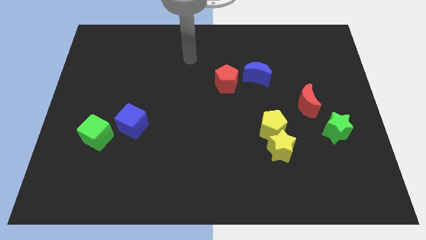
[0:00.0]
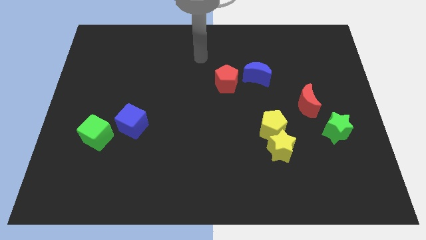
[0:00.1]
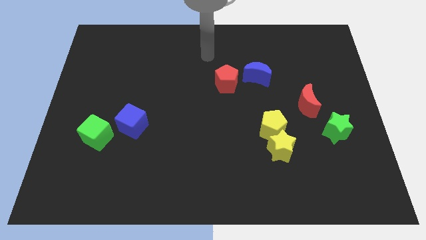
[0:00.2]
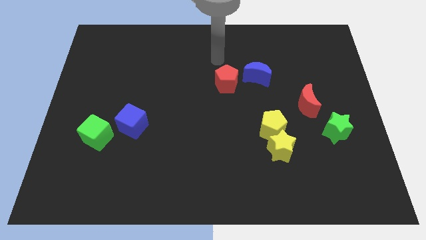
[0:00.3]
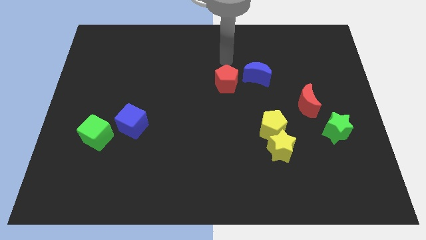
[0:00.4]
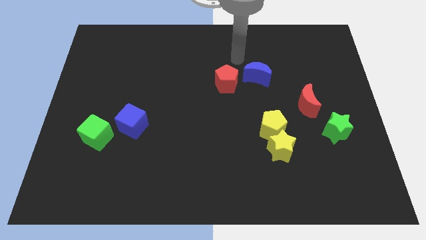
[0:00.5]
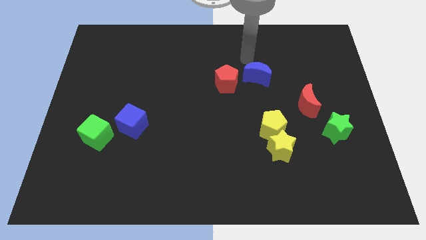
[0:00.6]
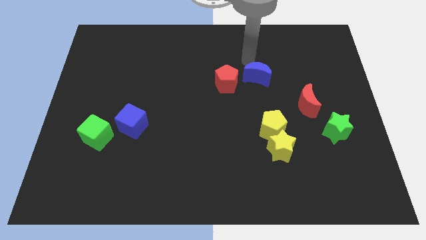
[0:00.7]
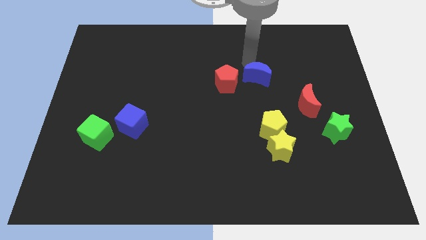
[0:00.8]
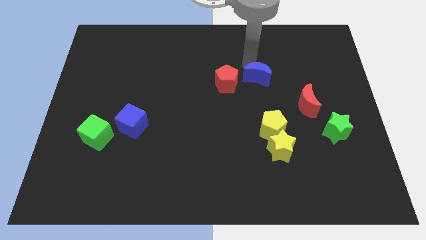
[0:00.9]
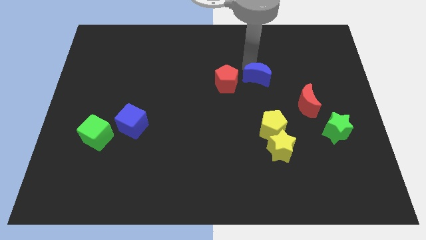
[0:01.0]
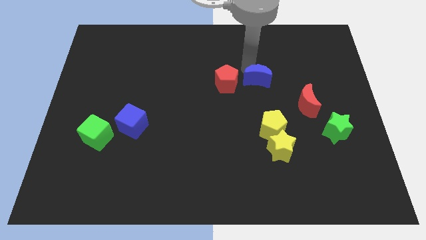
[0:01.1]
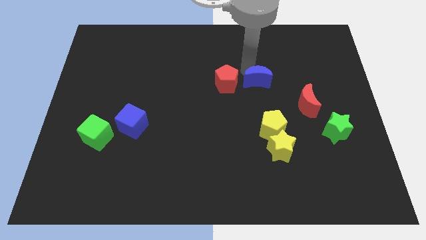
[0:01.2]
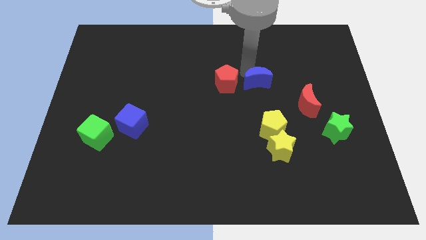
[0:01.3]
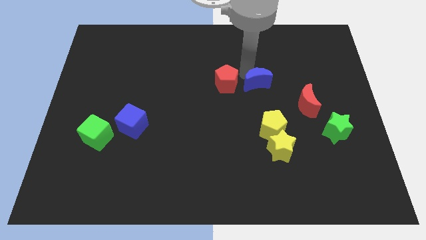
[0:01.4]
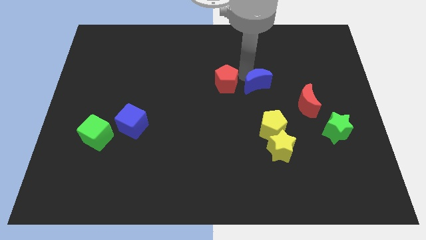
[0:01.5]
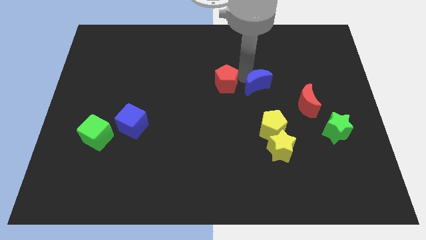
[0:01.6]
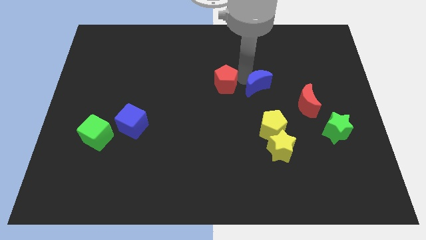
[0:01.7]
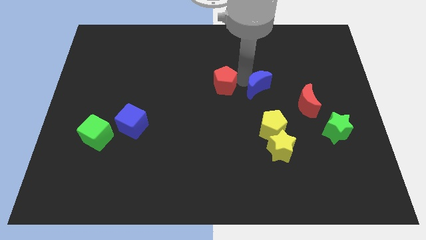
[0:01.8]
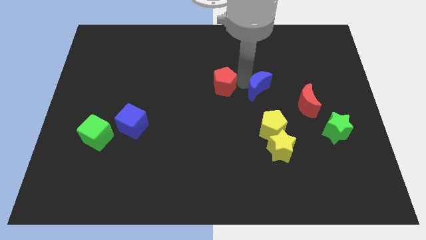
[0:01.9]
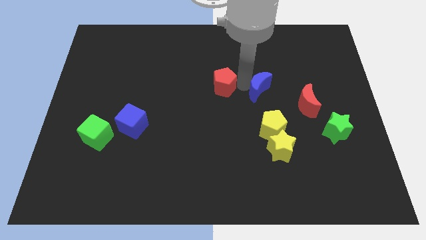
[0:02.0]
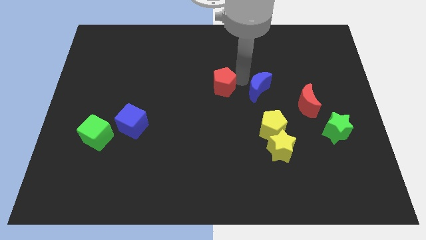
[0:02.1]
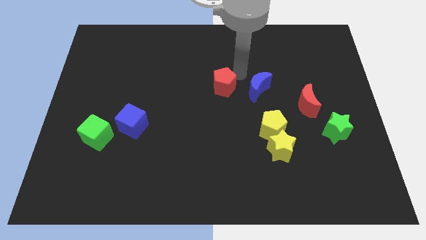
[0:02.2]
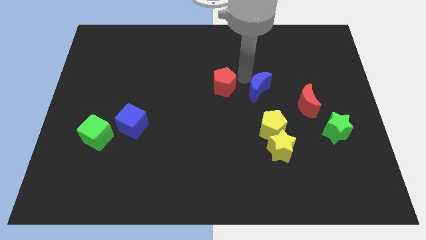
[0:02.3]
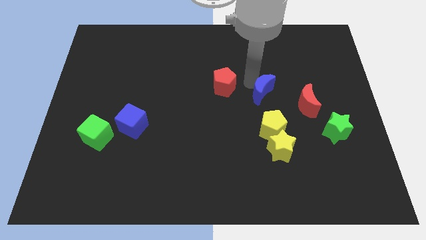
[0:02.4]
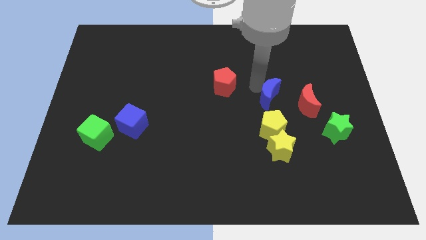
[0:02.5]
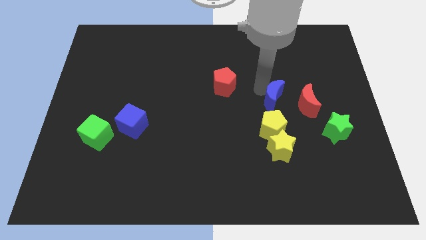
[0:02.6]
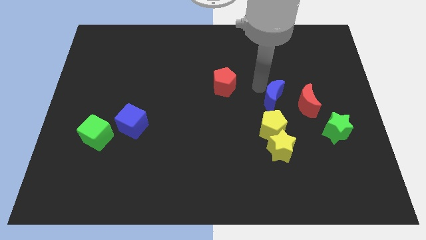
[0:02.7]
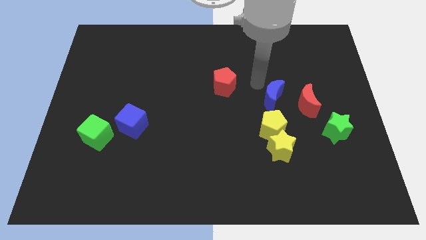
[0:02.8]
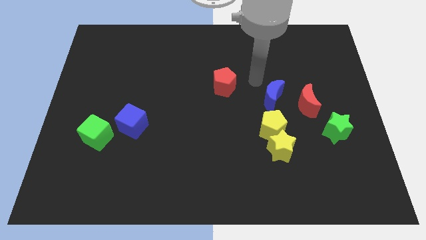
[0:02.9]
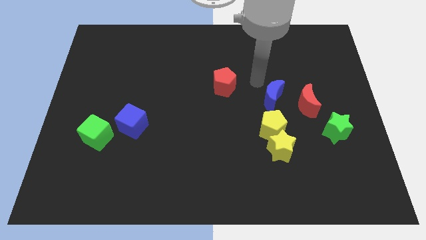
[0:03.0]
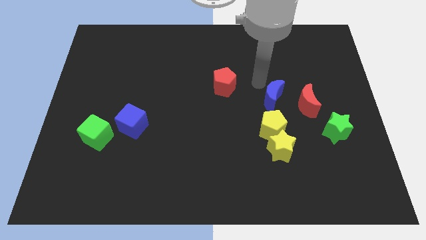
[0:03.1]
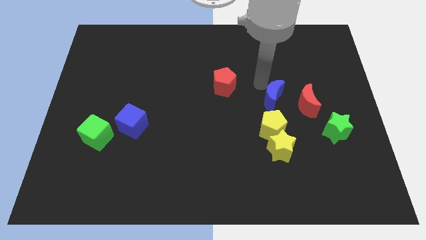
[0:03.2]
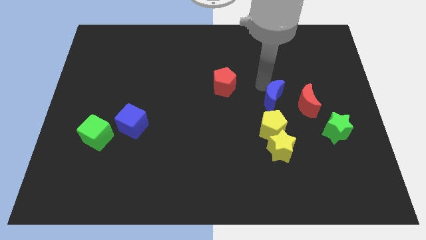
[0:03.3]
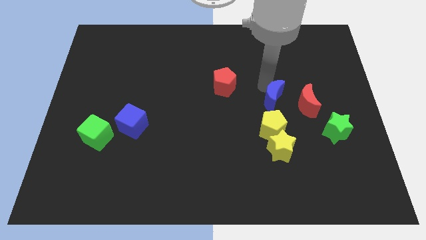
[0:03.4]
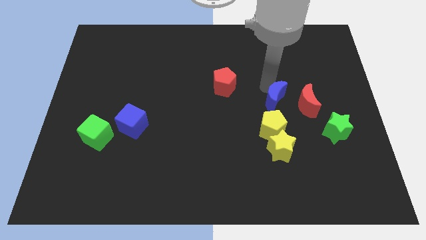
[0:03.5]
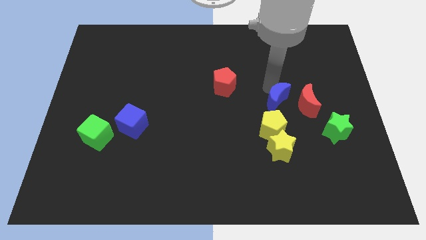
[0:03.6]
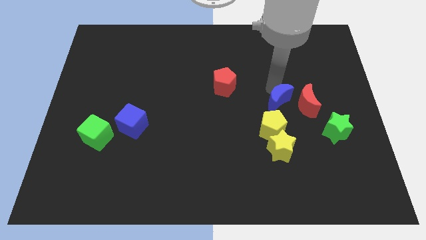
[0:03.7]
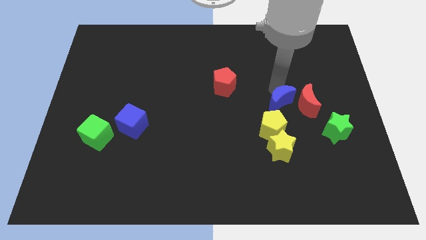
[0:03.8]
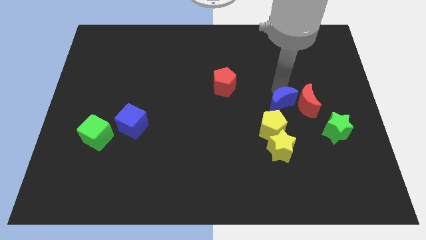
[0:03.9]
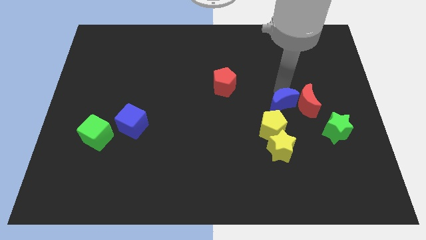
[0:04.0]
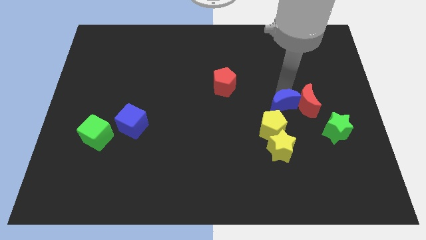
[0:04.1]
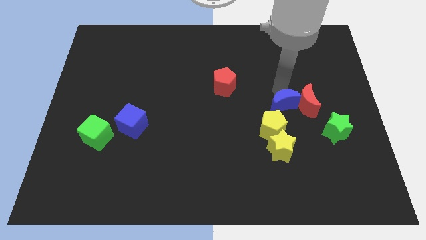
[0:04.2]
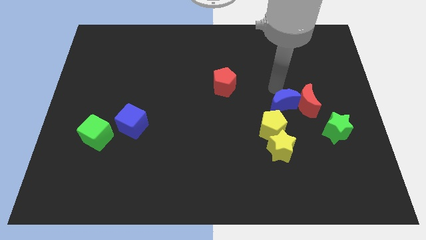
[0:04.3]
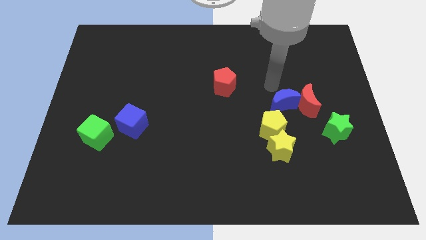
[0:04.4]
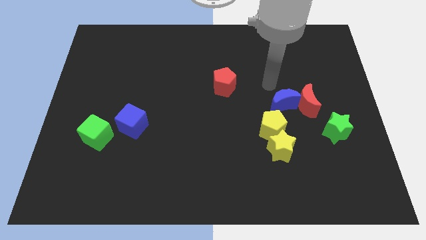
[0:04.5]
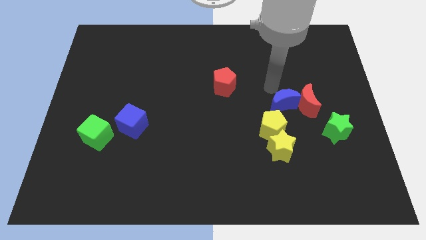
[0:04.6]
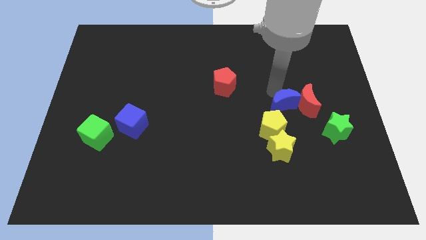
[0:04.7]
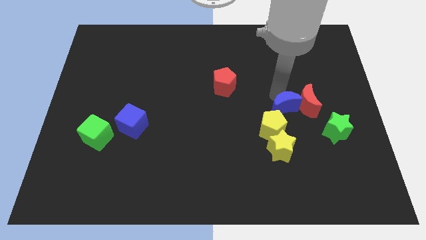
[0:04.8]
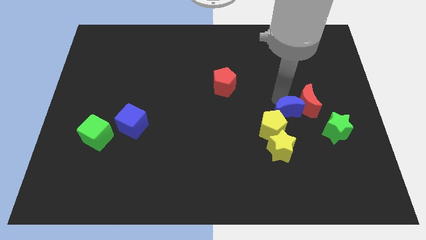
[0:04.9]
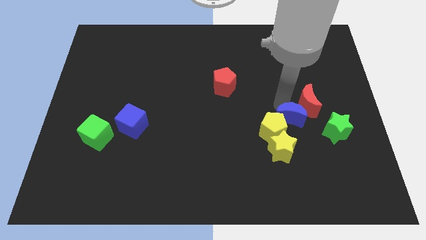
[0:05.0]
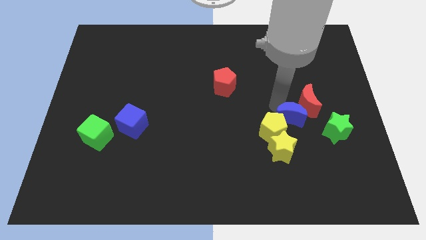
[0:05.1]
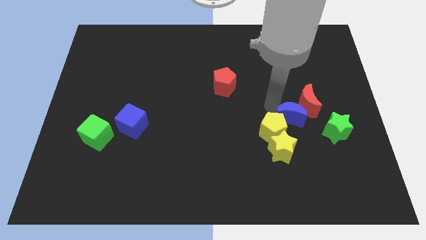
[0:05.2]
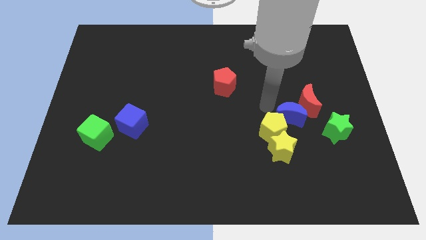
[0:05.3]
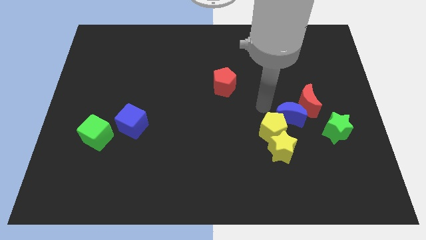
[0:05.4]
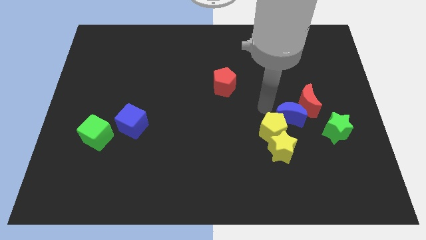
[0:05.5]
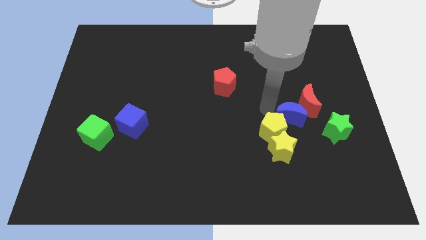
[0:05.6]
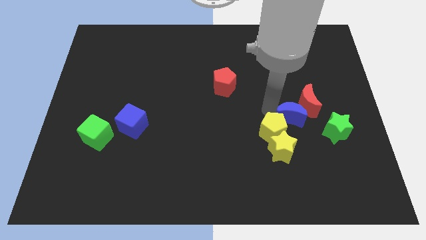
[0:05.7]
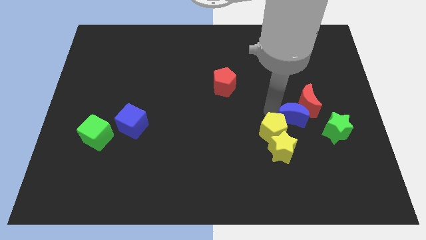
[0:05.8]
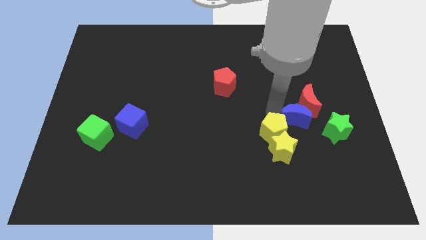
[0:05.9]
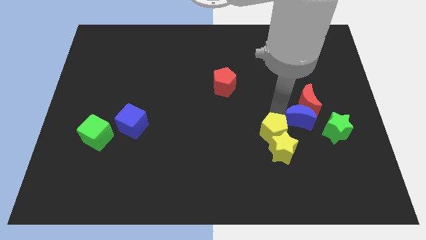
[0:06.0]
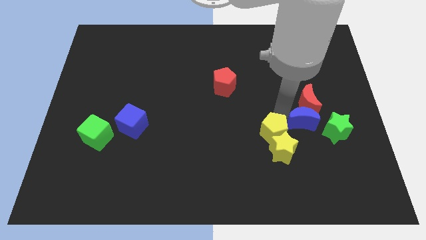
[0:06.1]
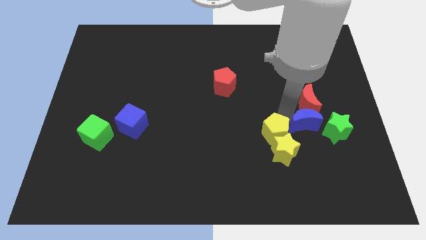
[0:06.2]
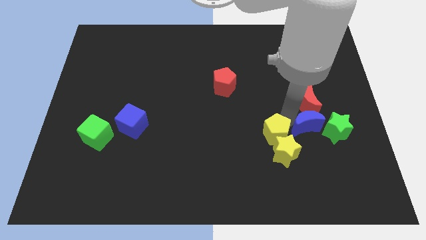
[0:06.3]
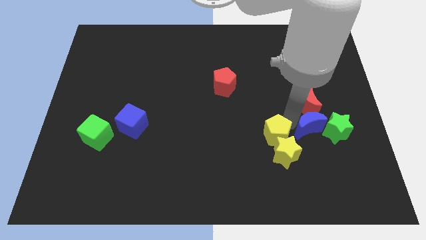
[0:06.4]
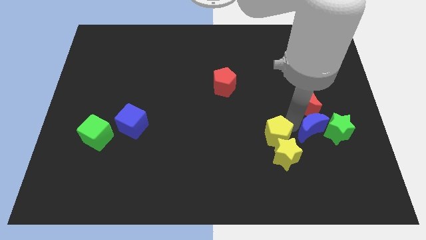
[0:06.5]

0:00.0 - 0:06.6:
push the blue moon to the green star
